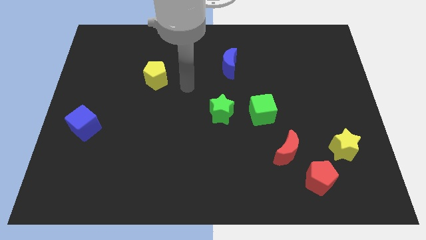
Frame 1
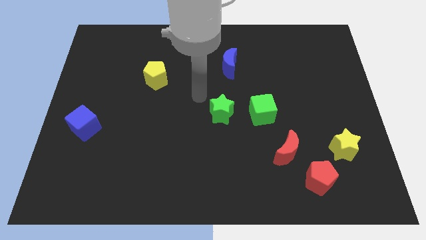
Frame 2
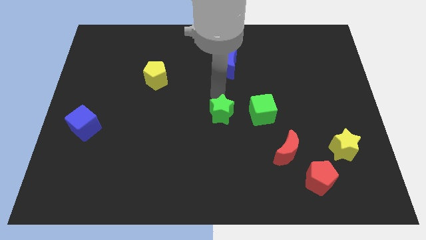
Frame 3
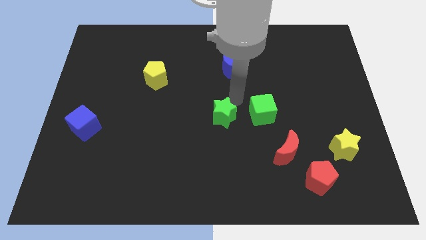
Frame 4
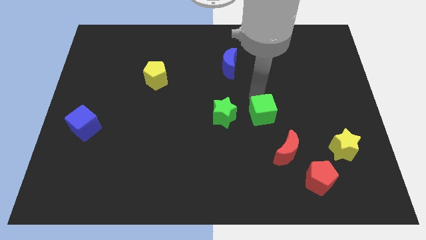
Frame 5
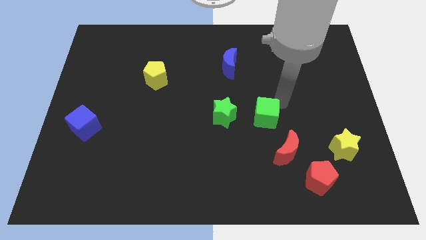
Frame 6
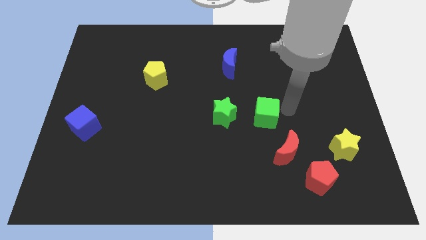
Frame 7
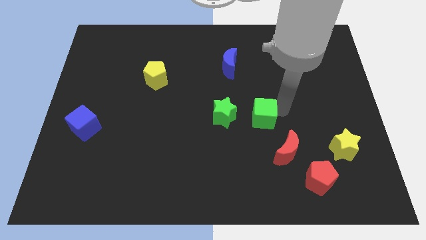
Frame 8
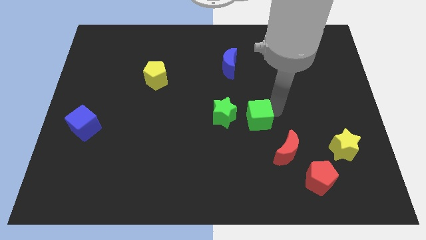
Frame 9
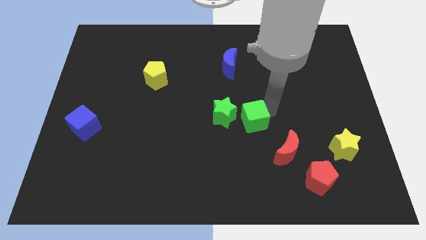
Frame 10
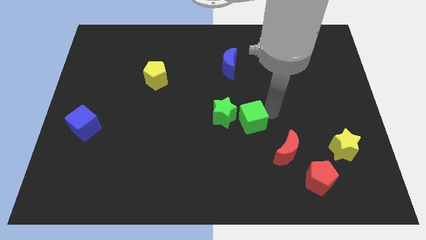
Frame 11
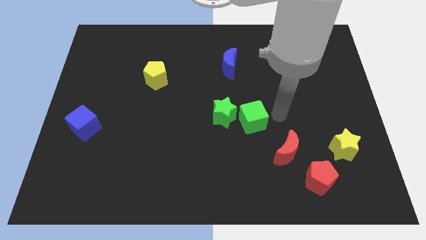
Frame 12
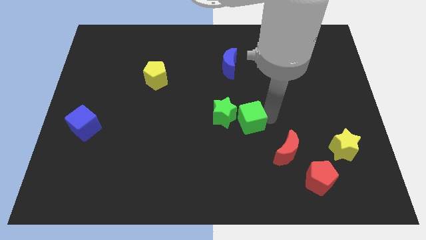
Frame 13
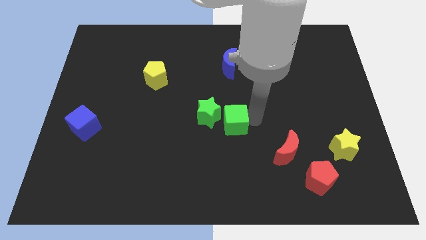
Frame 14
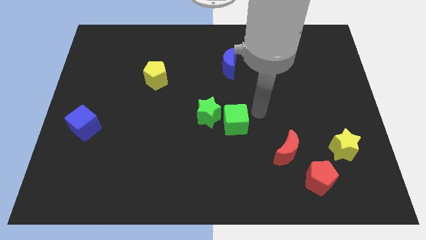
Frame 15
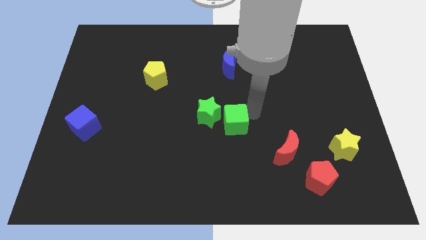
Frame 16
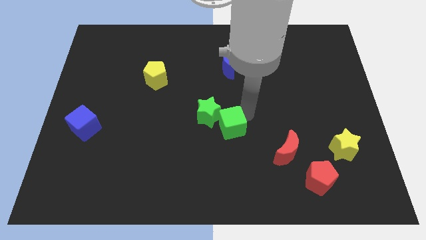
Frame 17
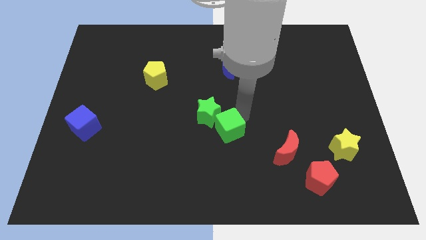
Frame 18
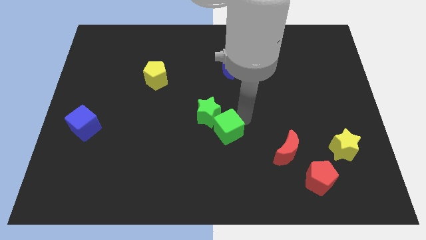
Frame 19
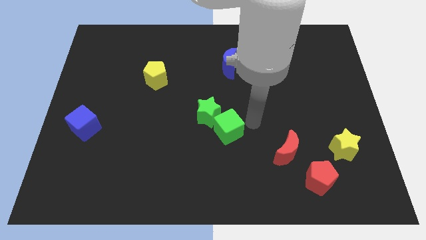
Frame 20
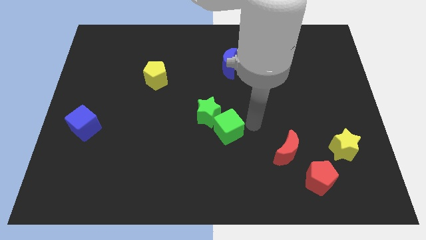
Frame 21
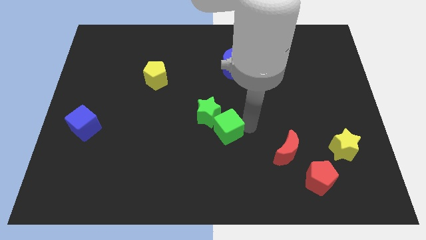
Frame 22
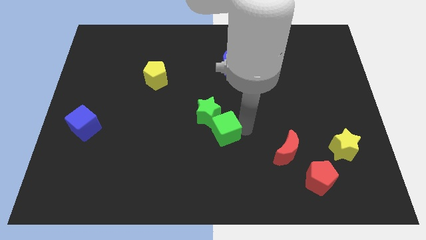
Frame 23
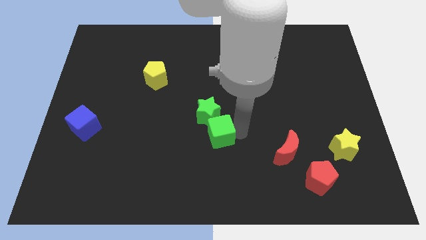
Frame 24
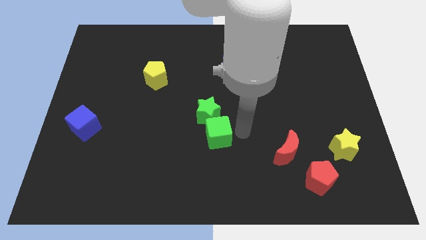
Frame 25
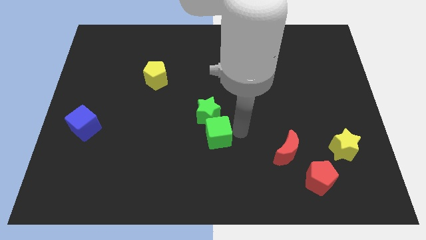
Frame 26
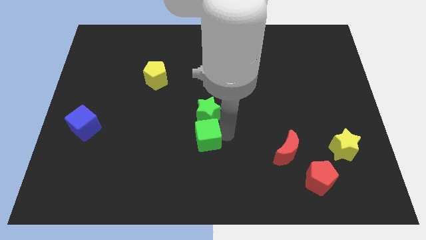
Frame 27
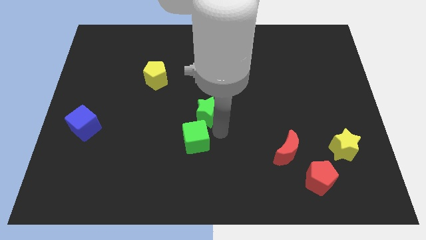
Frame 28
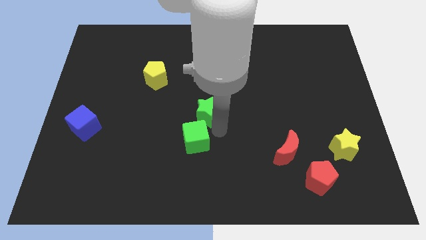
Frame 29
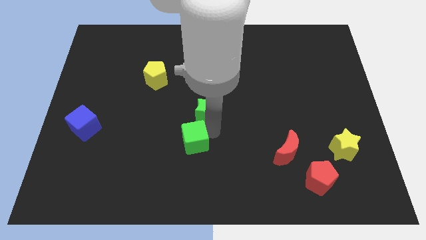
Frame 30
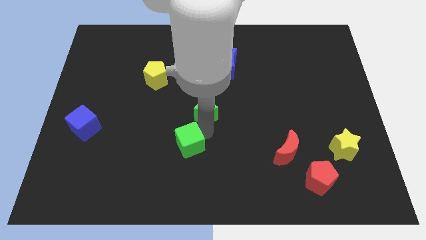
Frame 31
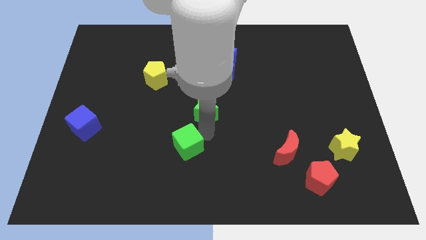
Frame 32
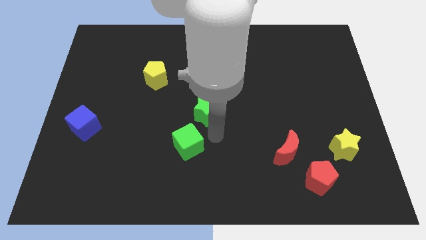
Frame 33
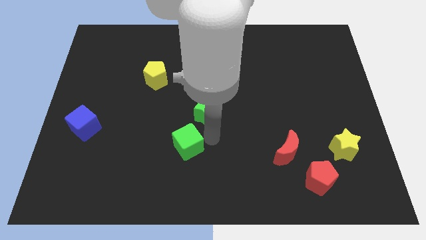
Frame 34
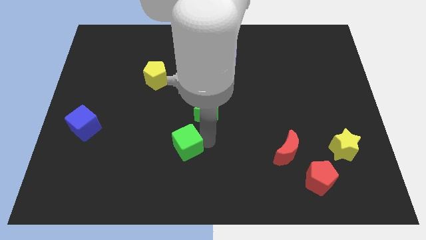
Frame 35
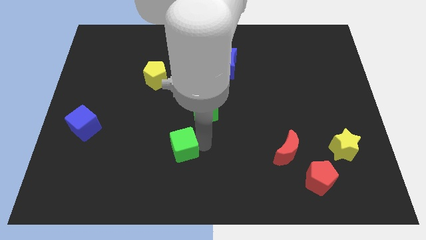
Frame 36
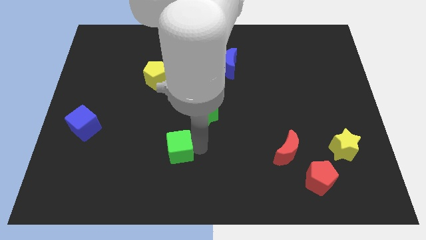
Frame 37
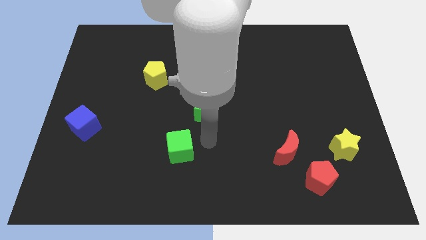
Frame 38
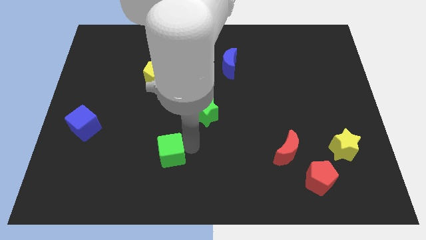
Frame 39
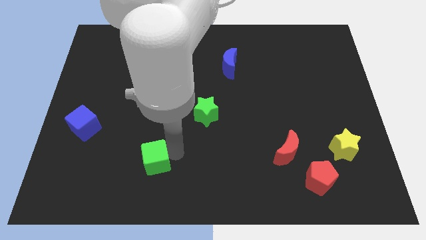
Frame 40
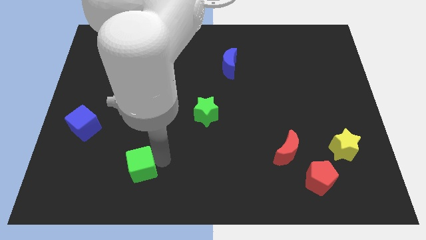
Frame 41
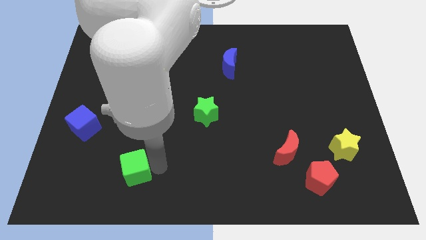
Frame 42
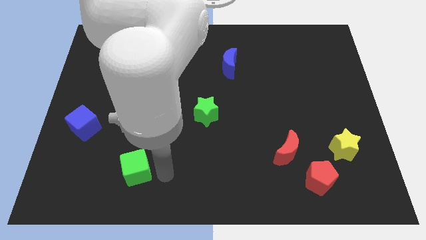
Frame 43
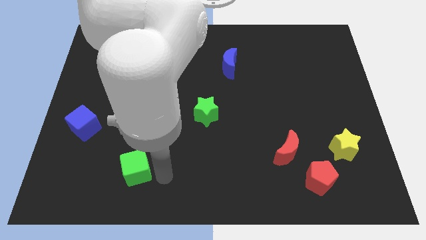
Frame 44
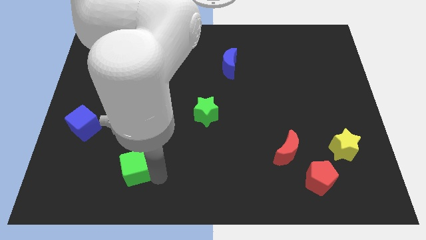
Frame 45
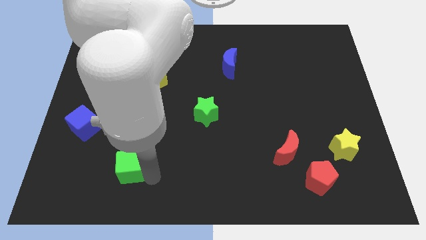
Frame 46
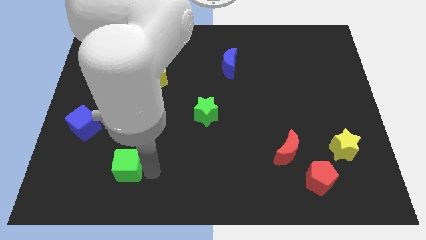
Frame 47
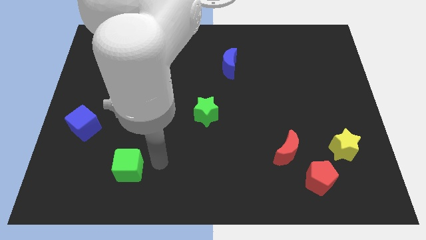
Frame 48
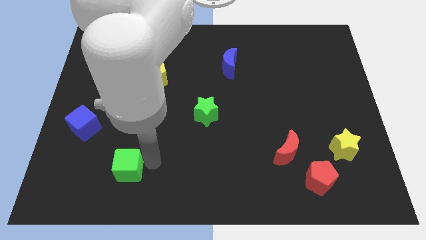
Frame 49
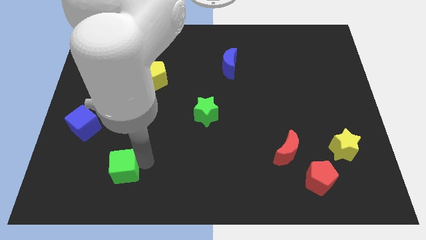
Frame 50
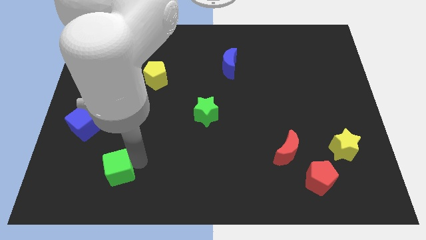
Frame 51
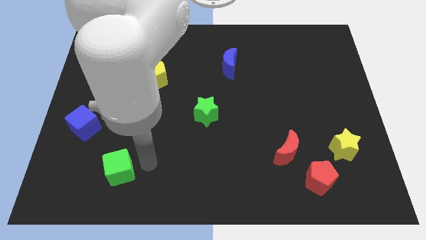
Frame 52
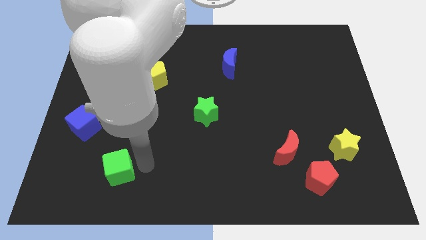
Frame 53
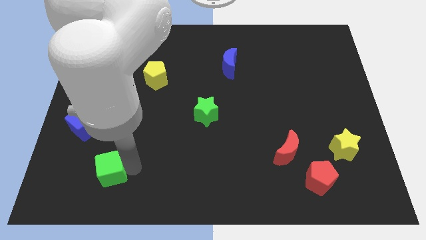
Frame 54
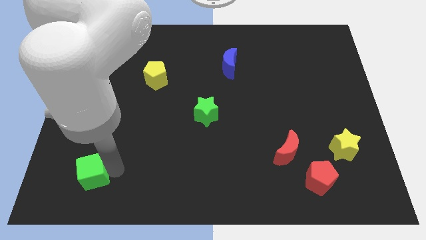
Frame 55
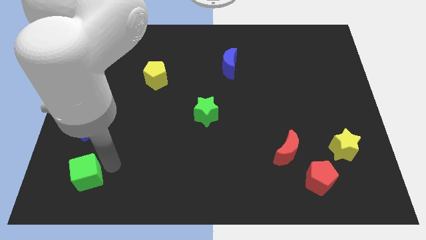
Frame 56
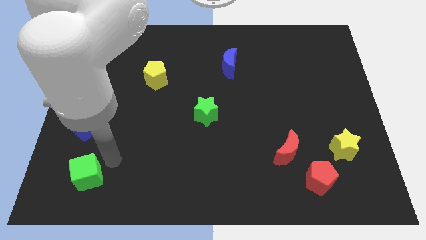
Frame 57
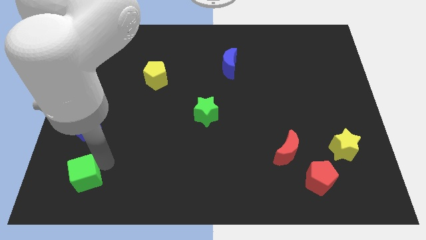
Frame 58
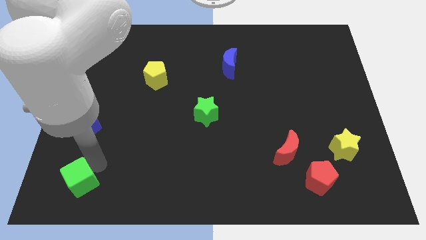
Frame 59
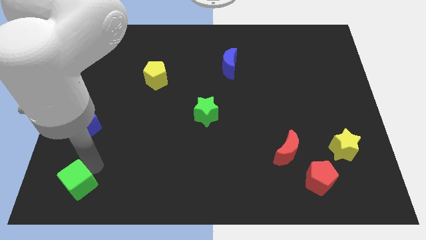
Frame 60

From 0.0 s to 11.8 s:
slide the green cube to the bottom left corner
